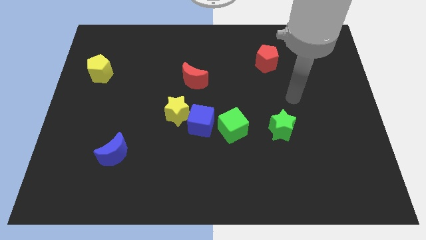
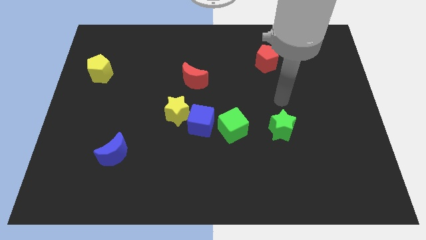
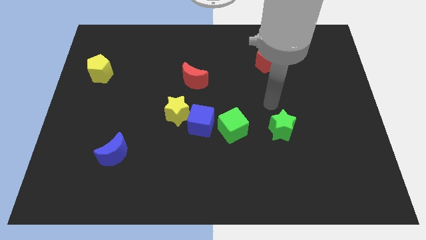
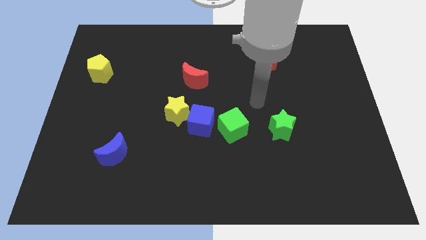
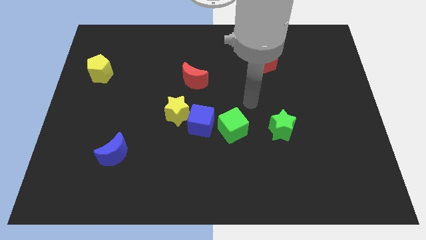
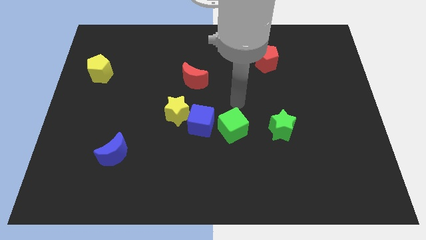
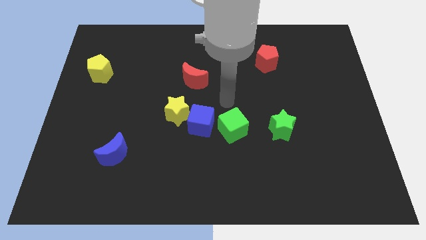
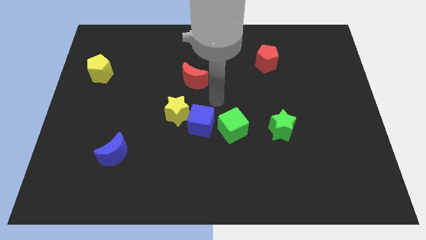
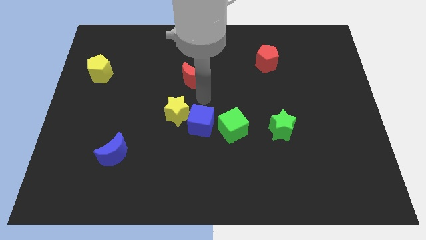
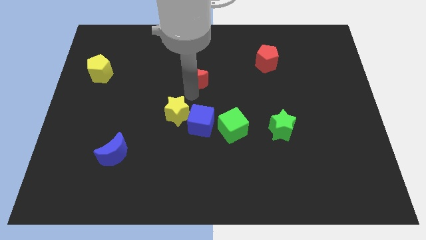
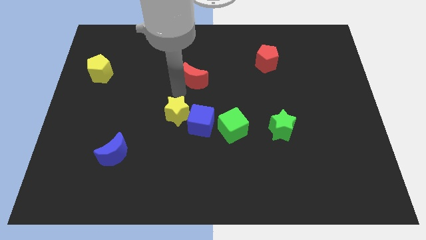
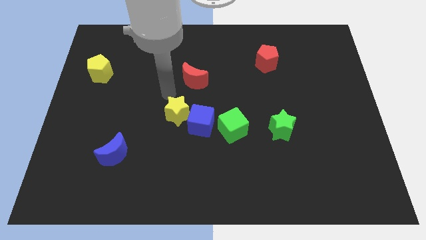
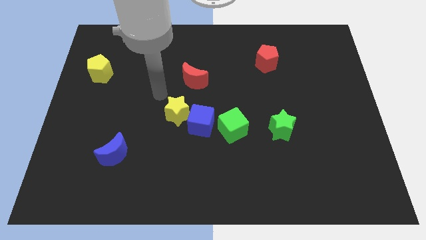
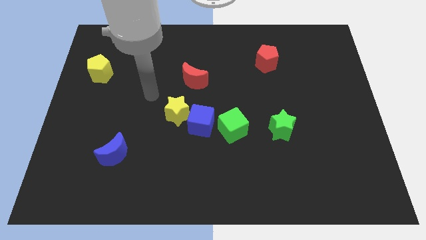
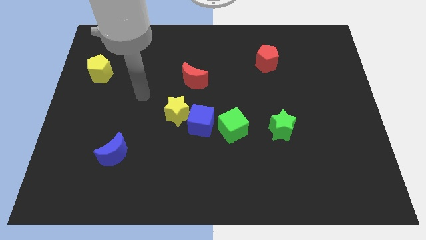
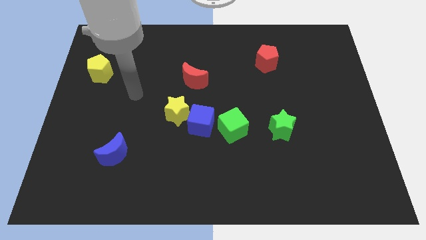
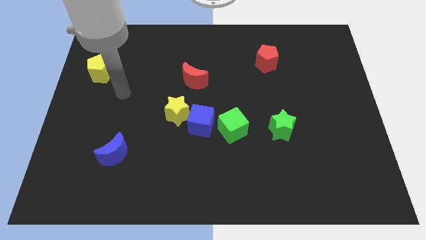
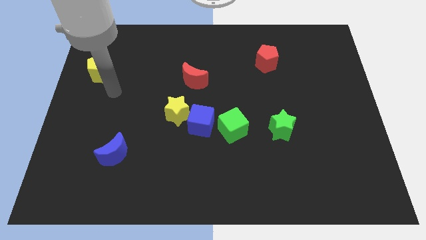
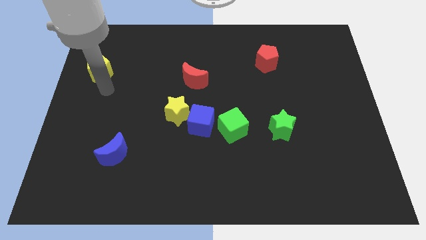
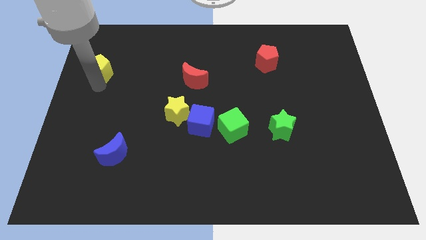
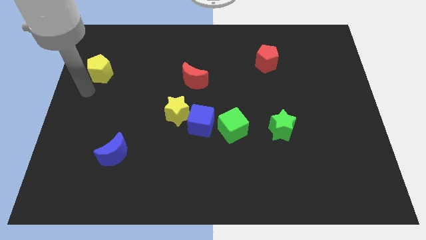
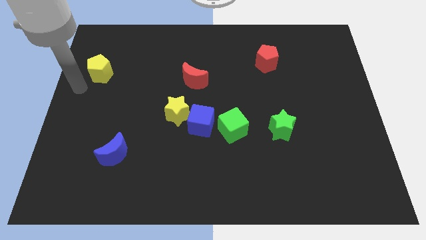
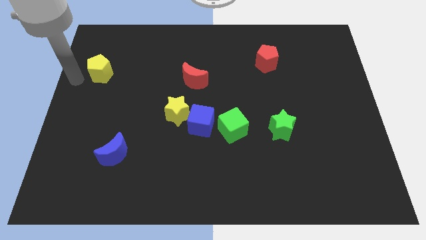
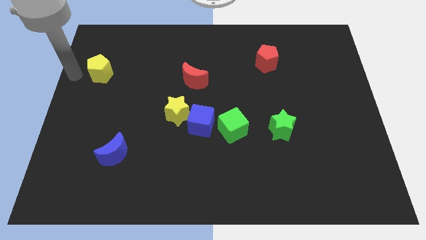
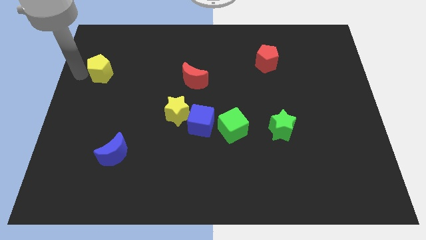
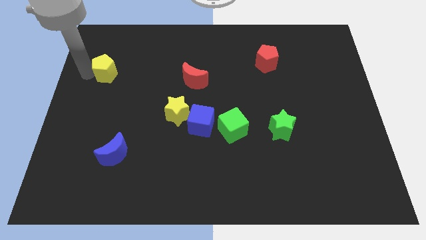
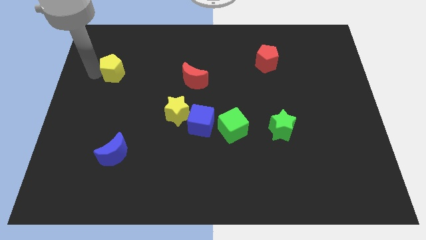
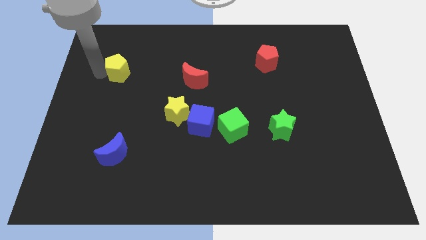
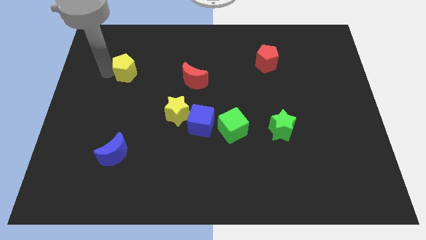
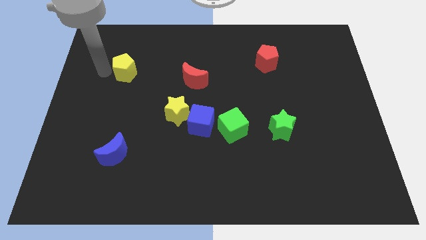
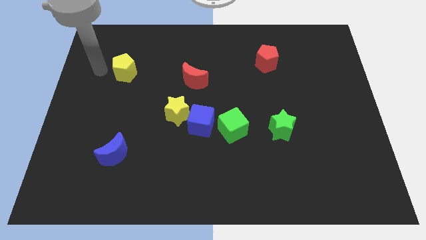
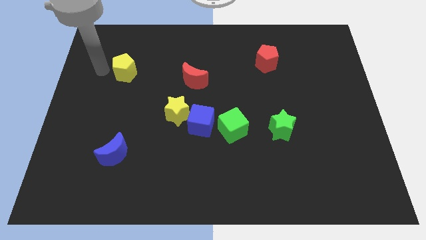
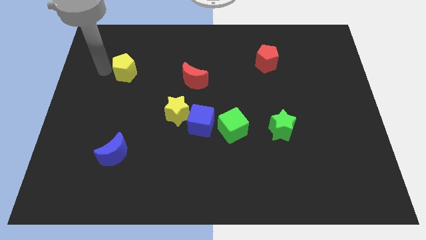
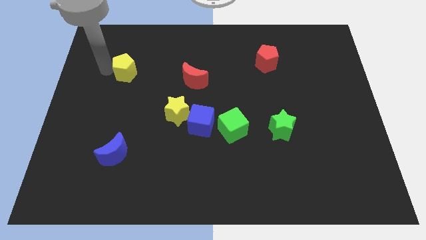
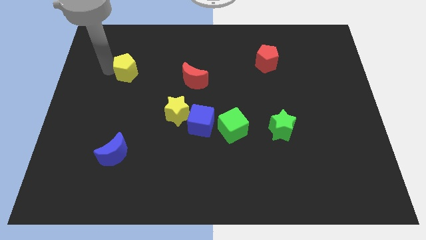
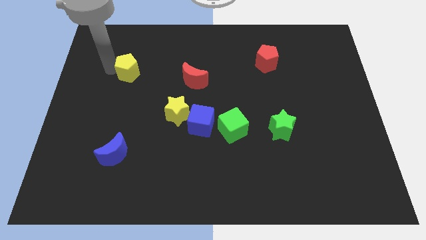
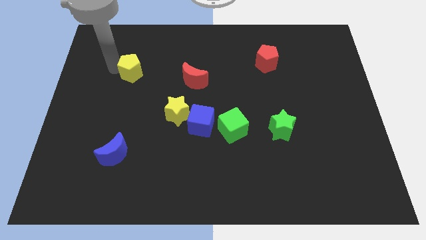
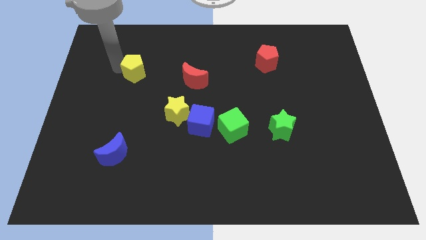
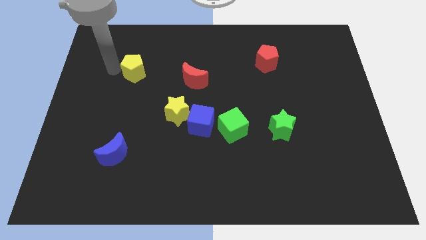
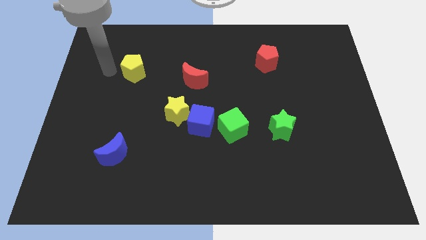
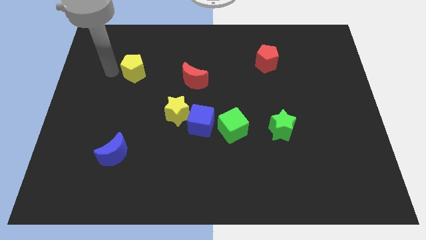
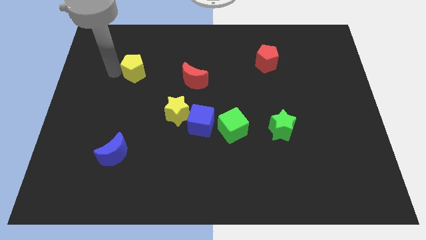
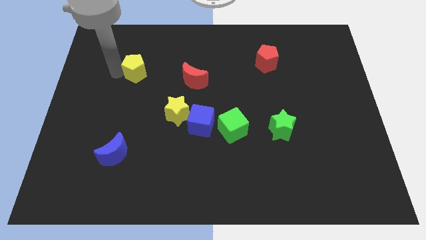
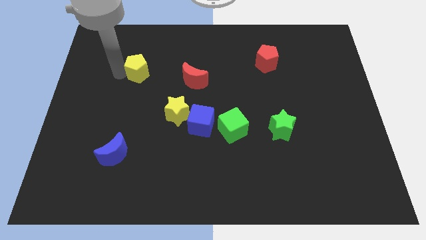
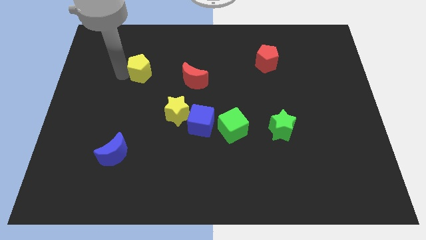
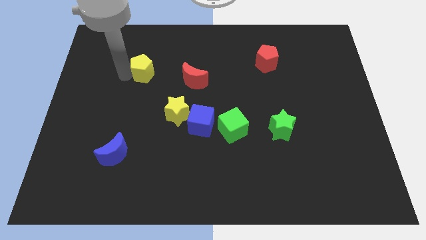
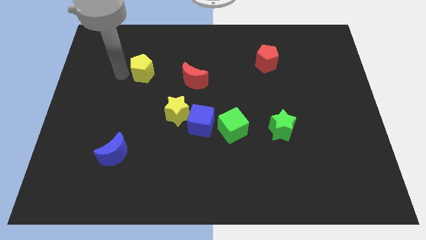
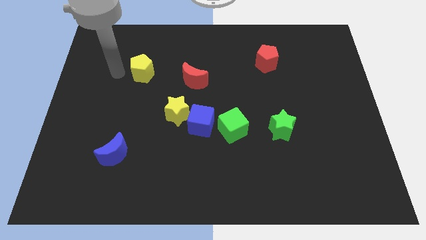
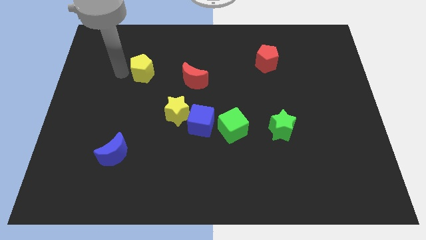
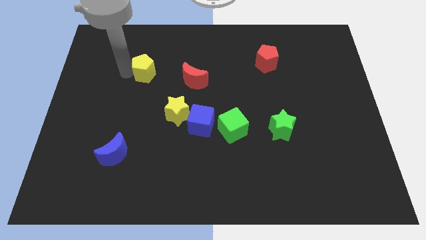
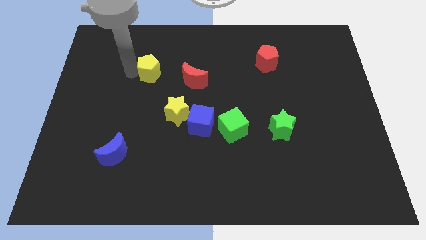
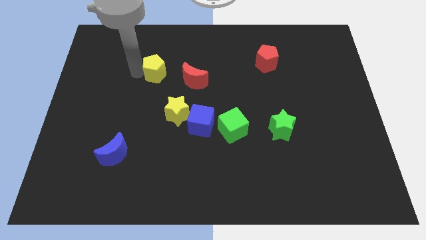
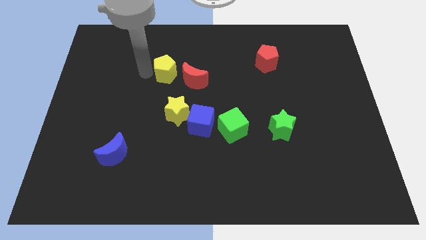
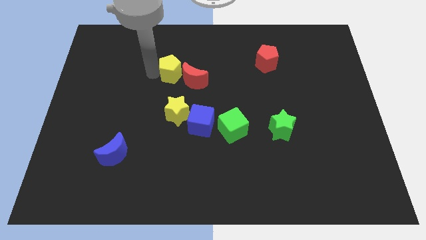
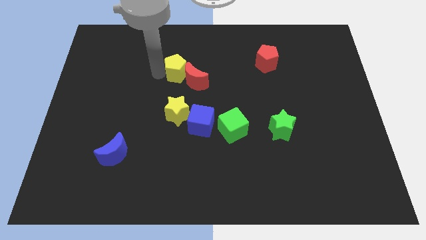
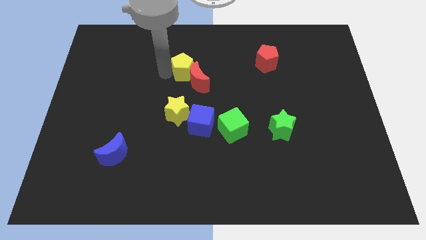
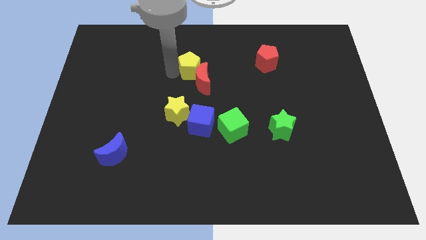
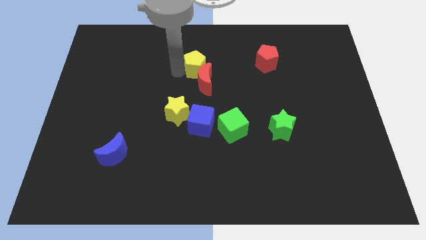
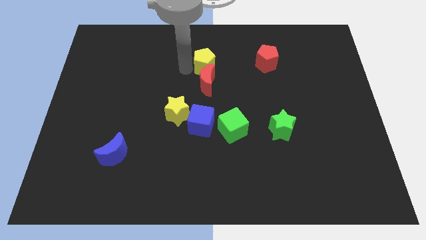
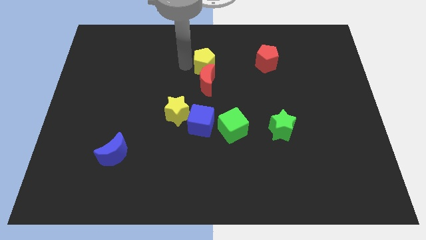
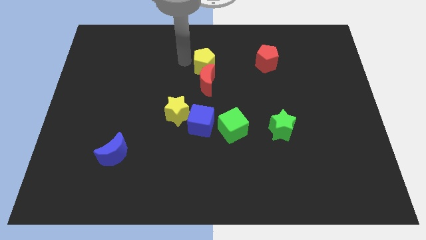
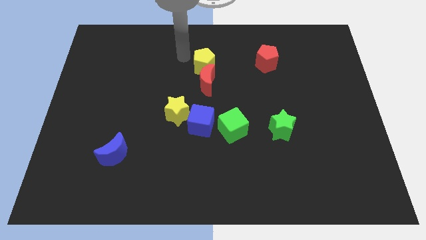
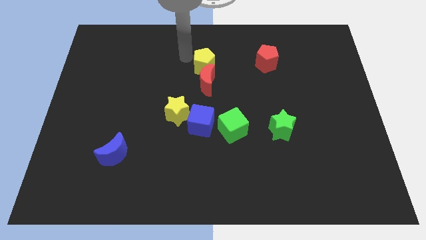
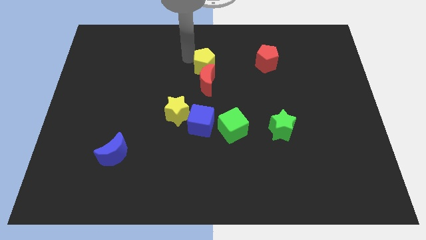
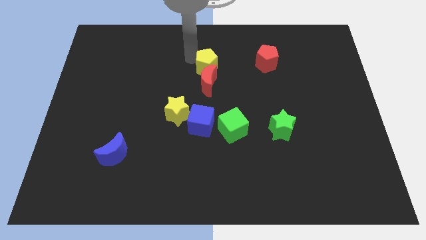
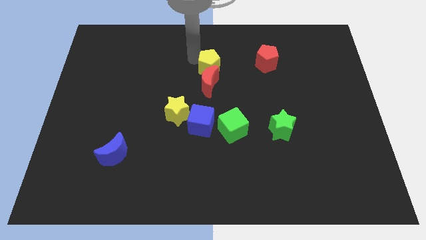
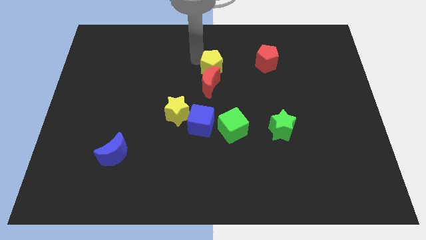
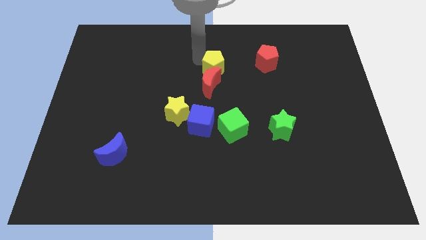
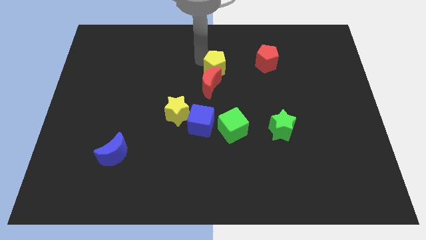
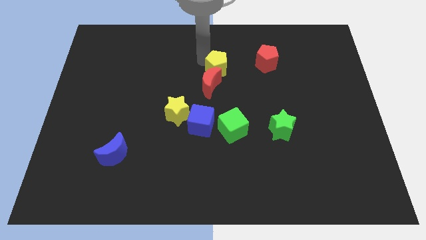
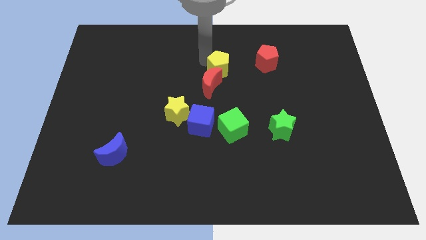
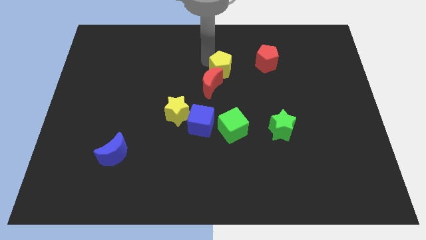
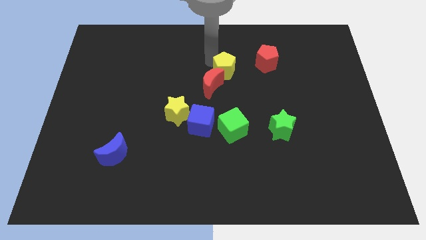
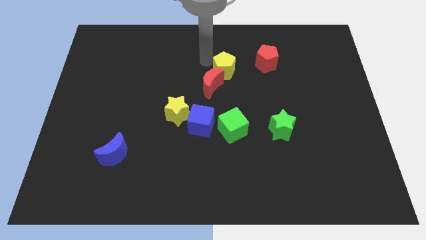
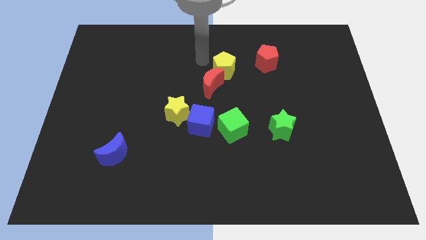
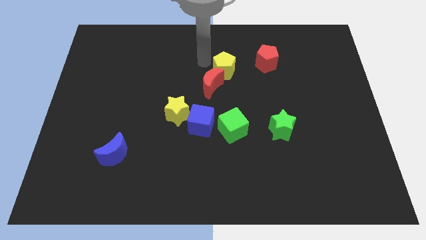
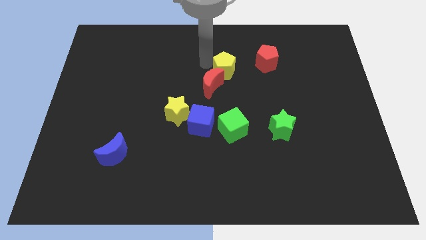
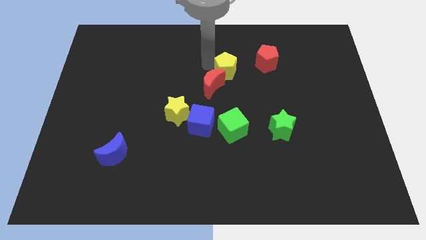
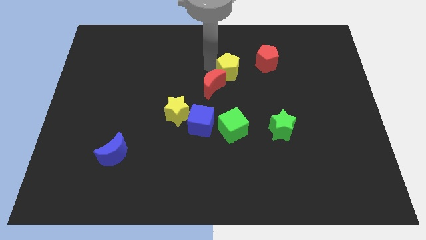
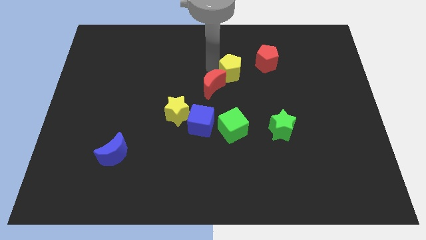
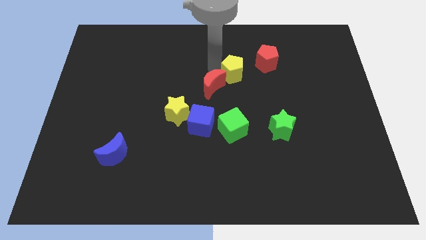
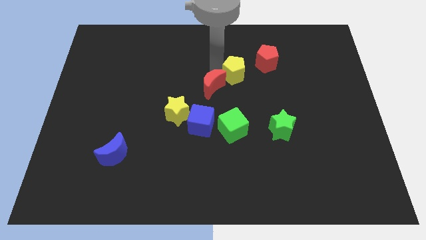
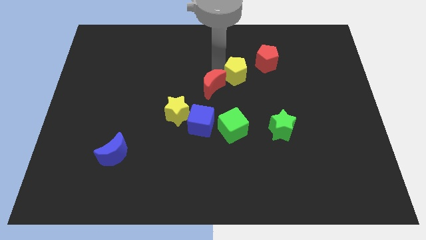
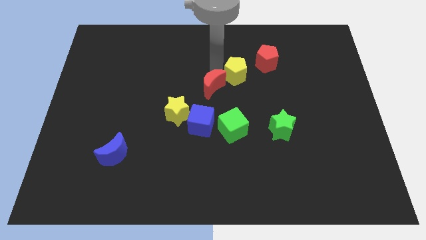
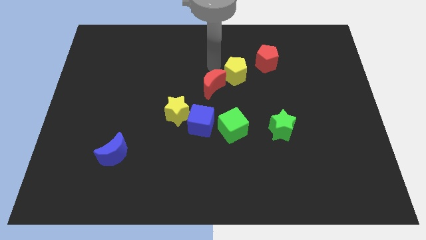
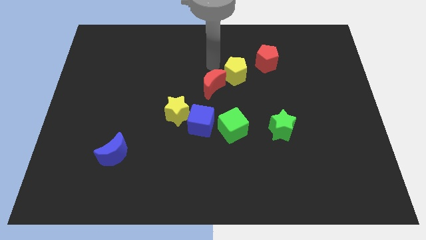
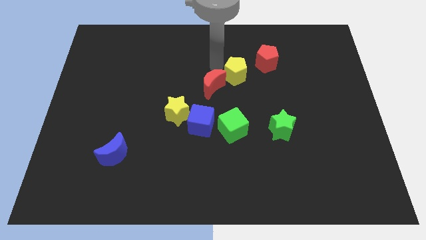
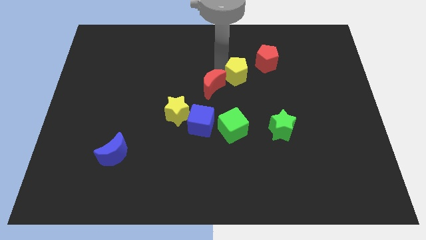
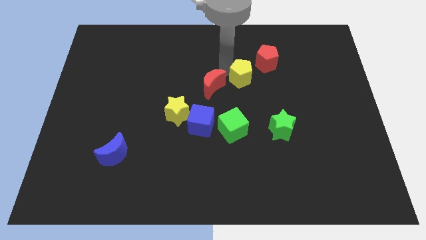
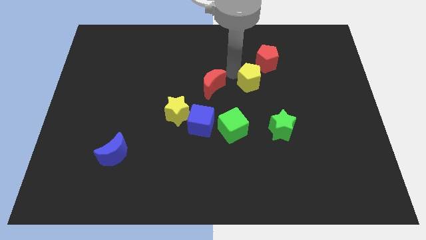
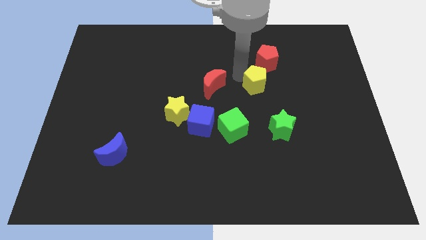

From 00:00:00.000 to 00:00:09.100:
move the yellow pentagon below the red pentagon
